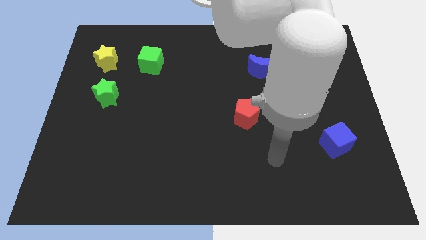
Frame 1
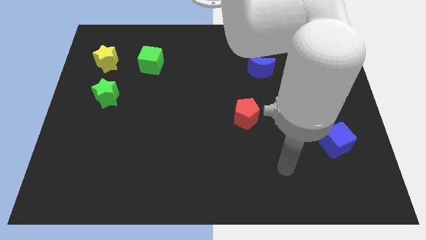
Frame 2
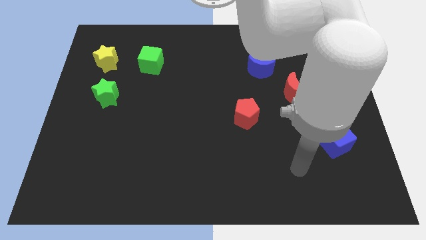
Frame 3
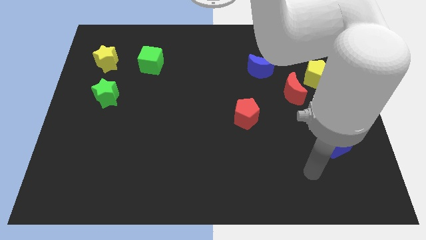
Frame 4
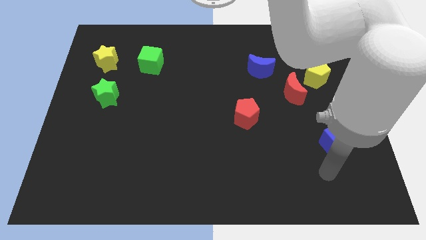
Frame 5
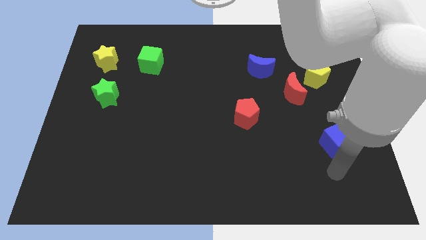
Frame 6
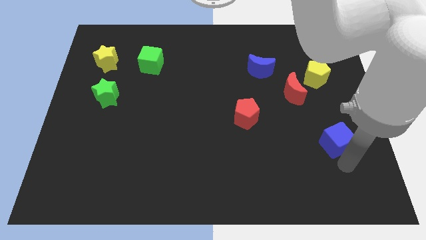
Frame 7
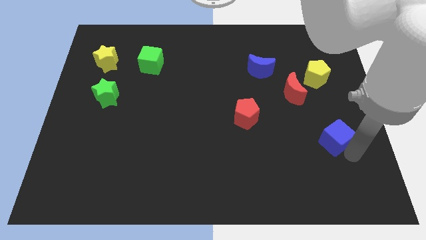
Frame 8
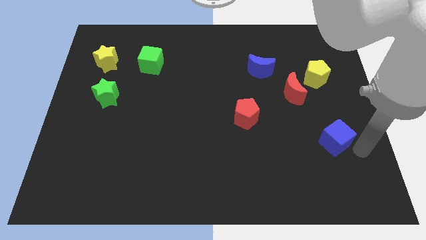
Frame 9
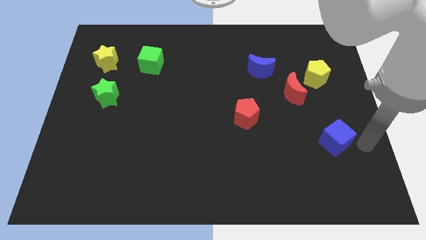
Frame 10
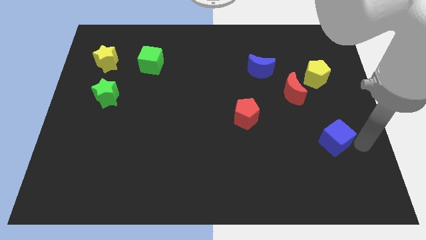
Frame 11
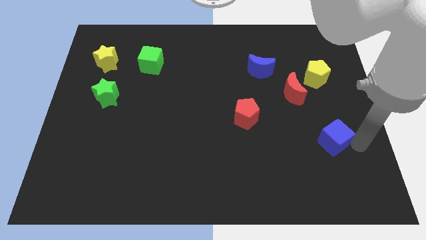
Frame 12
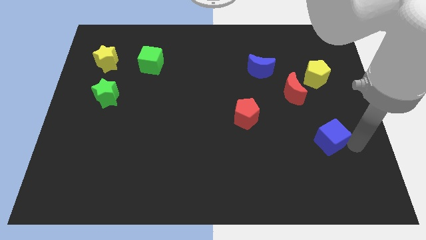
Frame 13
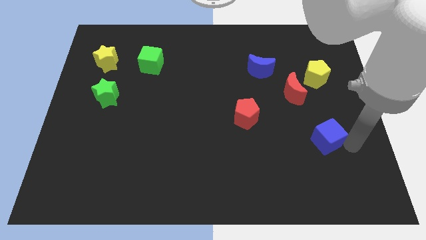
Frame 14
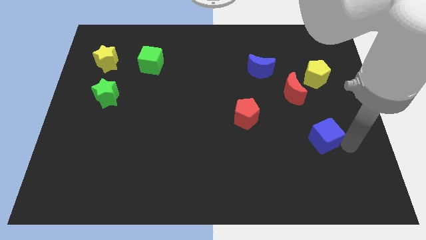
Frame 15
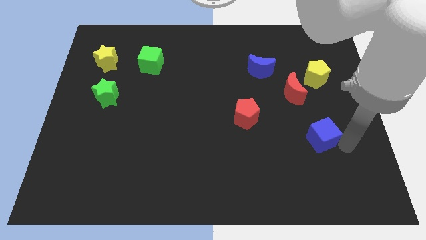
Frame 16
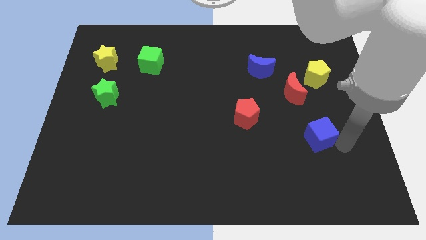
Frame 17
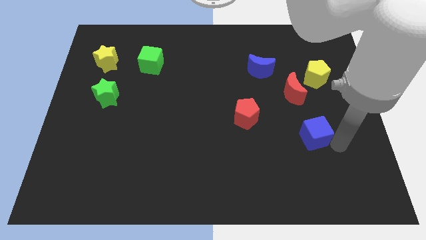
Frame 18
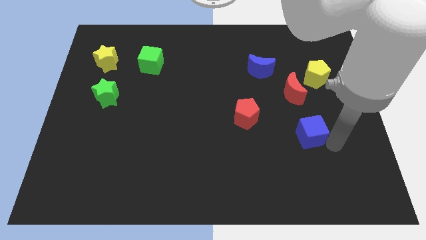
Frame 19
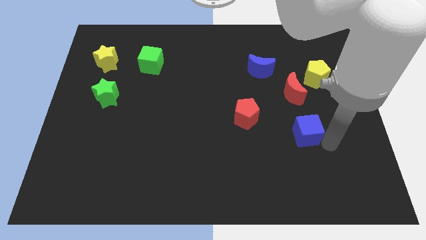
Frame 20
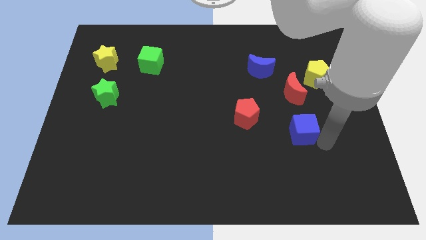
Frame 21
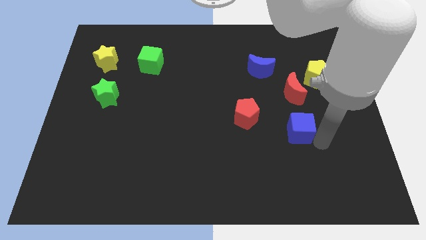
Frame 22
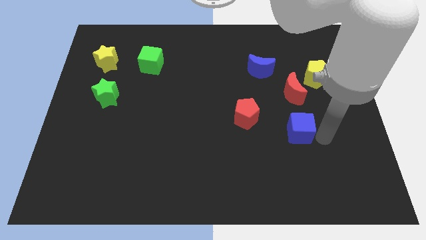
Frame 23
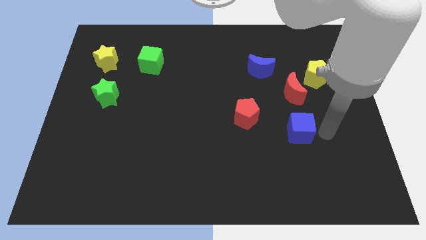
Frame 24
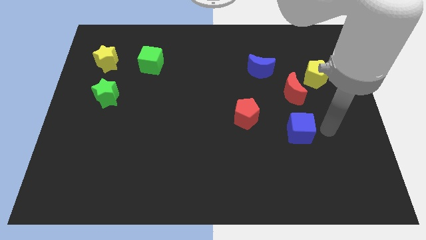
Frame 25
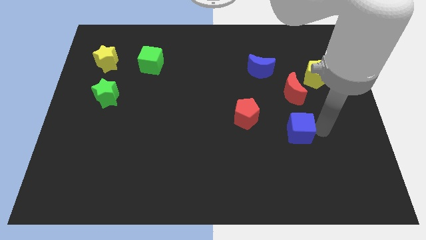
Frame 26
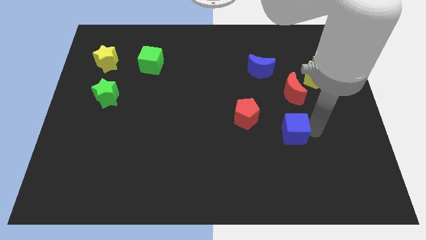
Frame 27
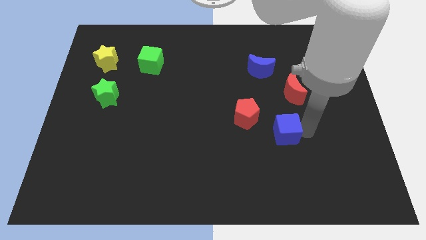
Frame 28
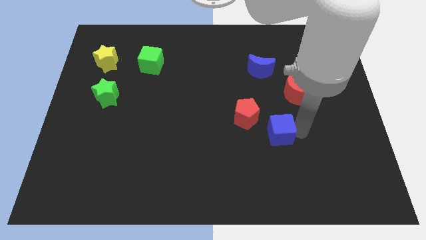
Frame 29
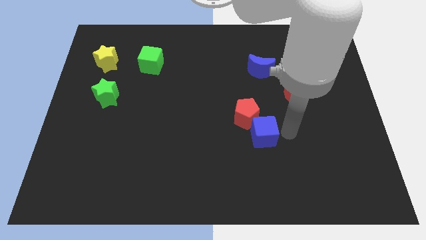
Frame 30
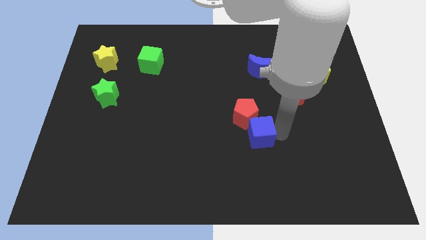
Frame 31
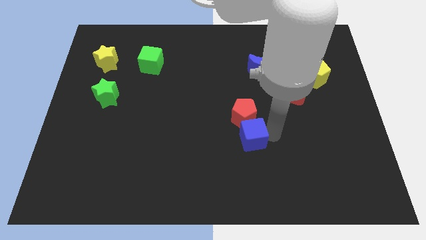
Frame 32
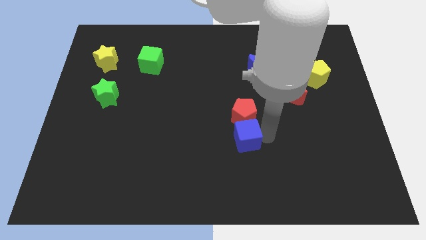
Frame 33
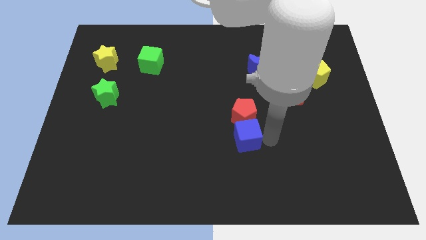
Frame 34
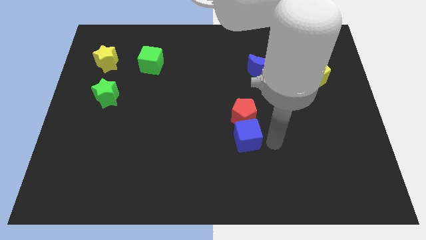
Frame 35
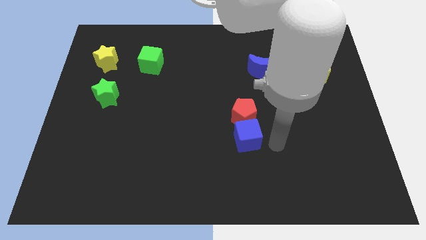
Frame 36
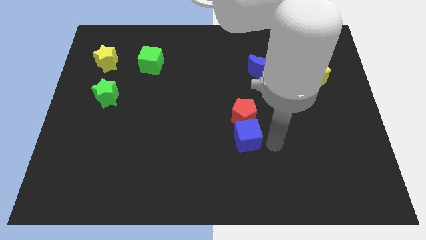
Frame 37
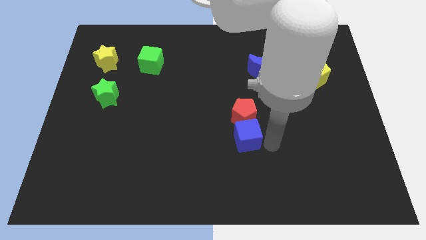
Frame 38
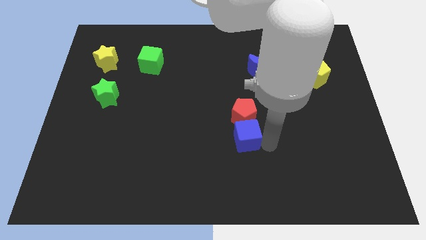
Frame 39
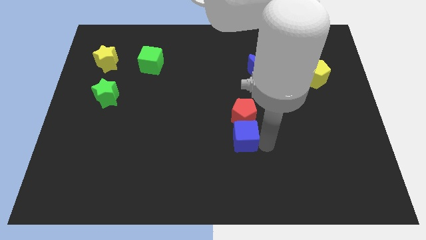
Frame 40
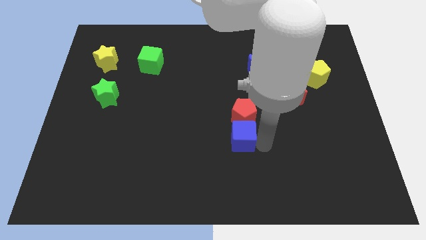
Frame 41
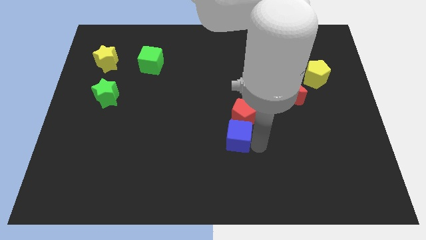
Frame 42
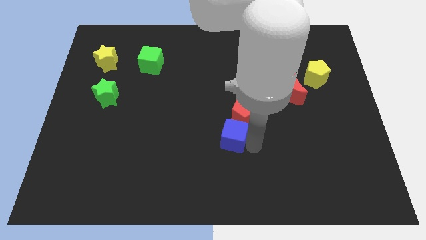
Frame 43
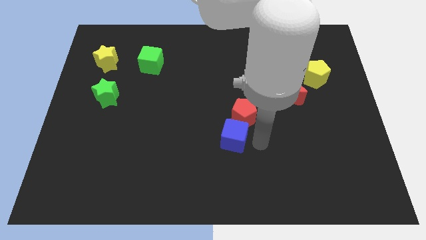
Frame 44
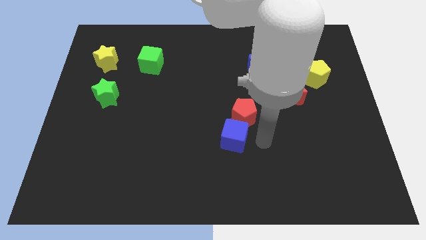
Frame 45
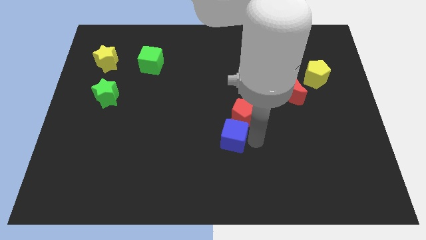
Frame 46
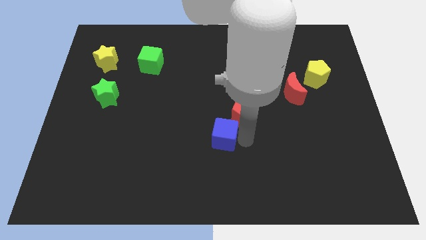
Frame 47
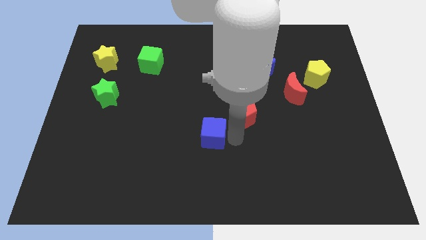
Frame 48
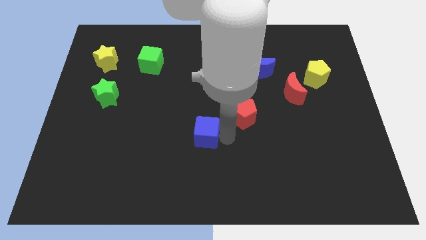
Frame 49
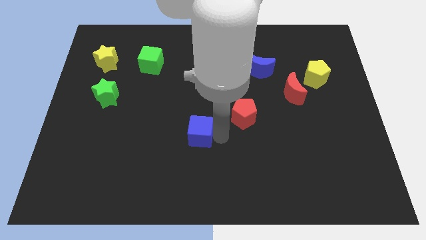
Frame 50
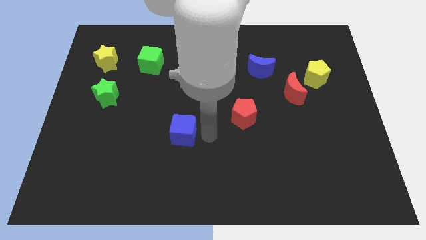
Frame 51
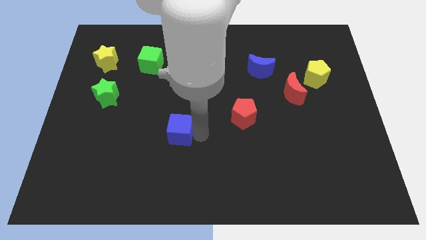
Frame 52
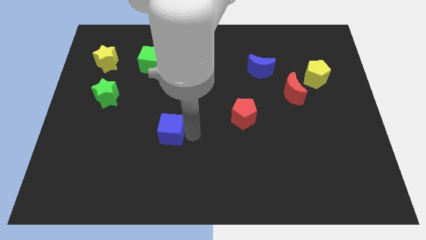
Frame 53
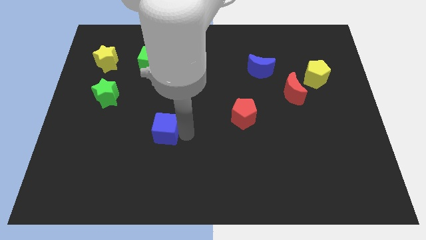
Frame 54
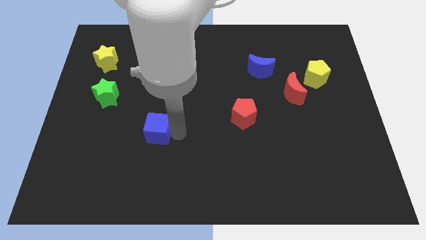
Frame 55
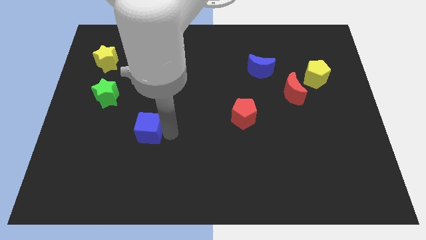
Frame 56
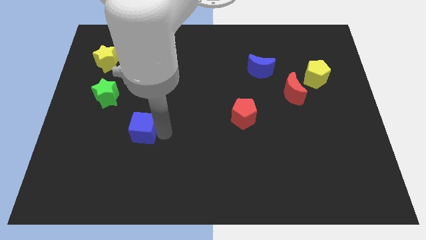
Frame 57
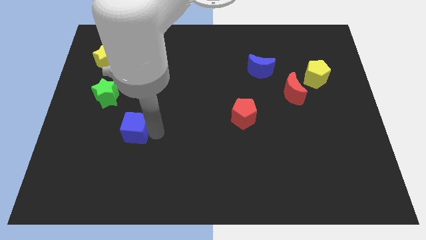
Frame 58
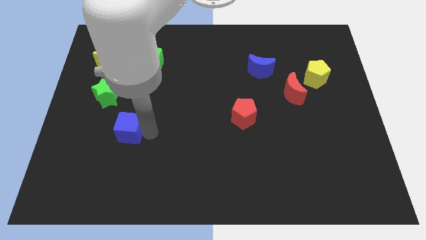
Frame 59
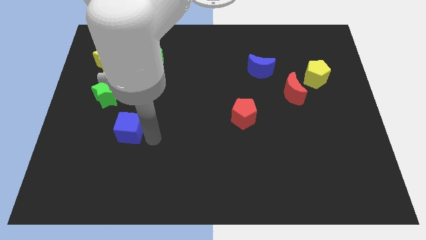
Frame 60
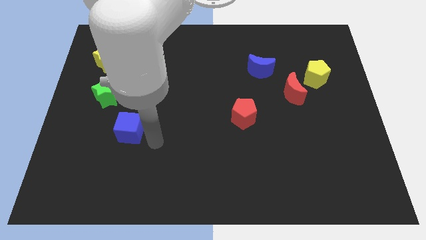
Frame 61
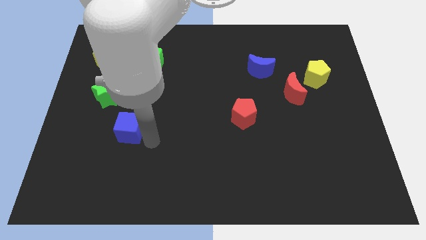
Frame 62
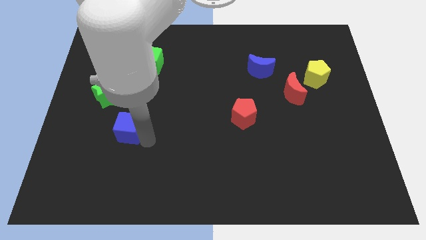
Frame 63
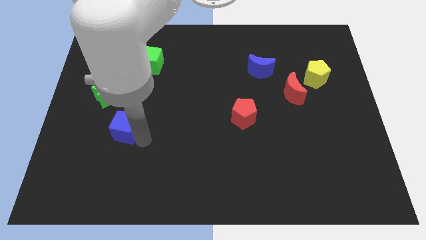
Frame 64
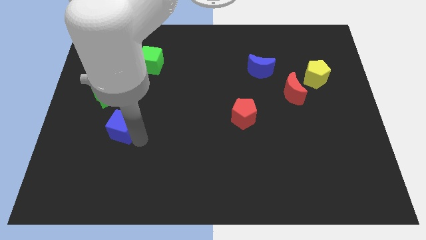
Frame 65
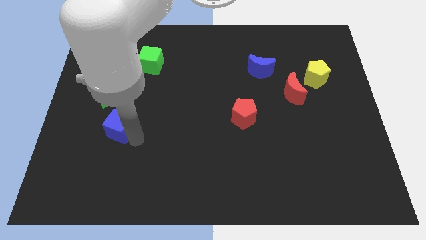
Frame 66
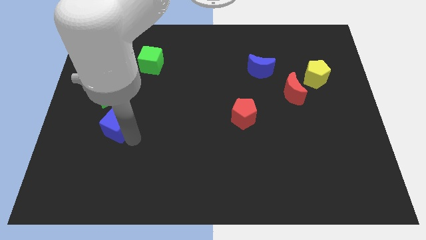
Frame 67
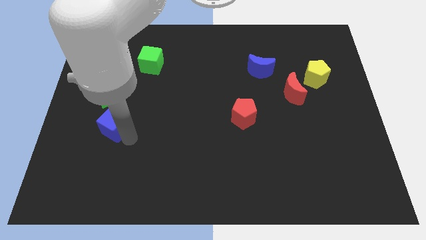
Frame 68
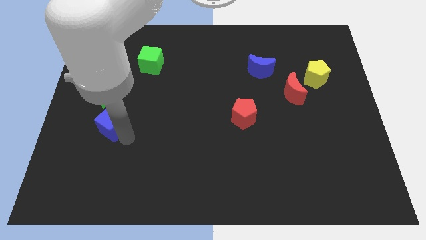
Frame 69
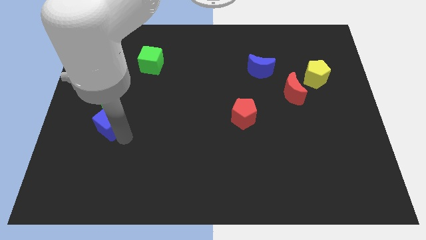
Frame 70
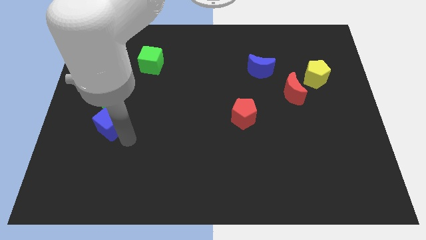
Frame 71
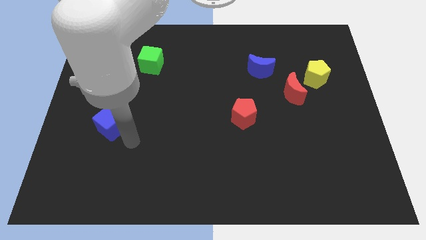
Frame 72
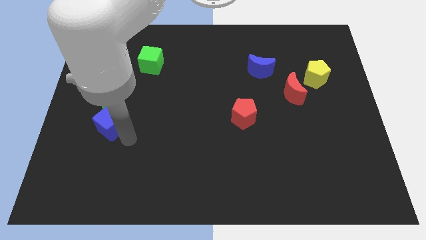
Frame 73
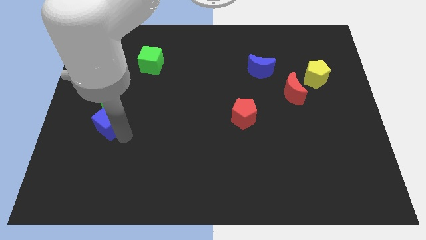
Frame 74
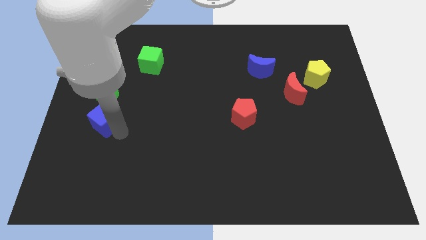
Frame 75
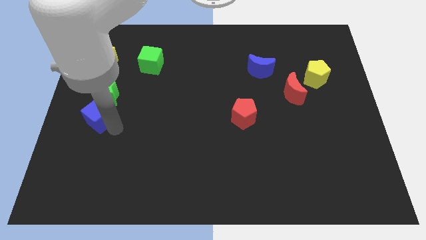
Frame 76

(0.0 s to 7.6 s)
put the blue cube to the center left
